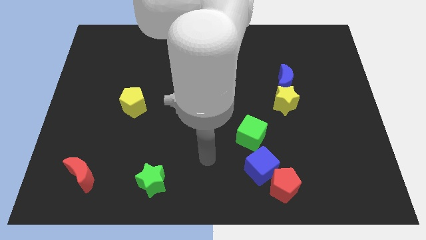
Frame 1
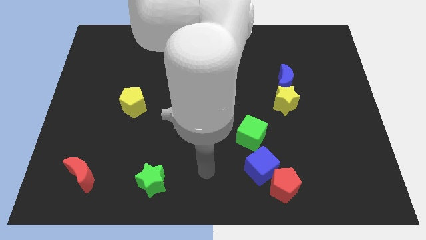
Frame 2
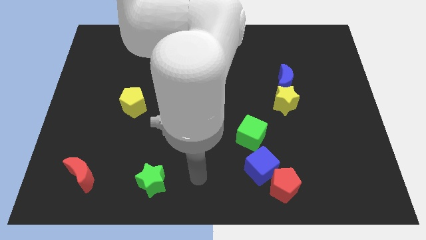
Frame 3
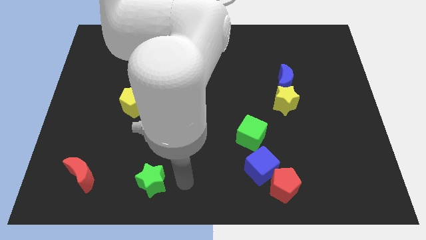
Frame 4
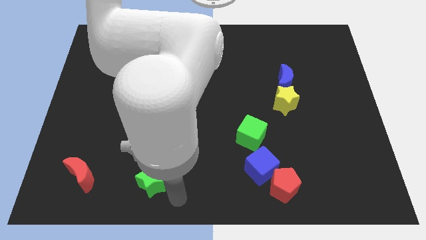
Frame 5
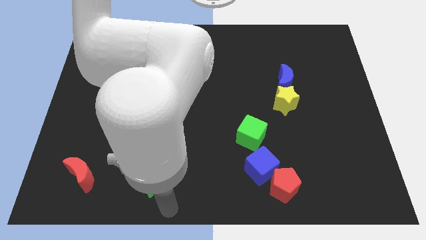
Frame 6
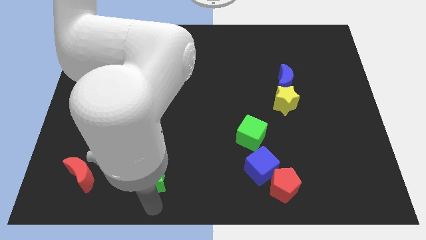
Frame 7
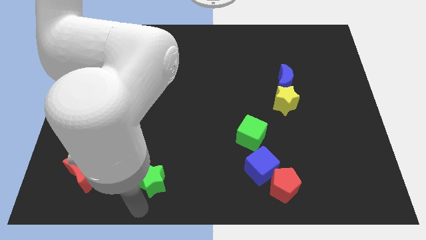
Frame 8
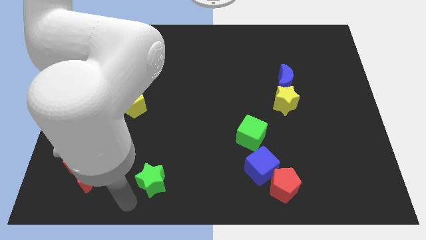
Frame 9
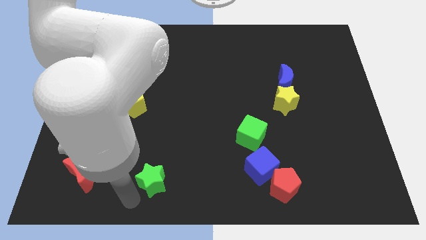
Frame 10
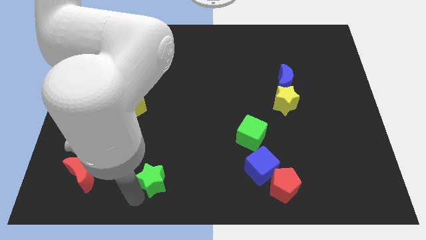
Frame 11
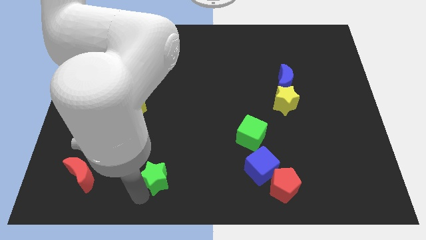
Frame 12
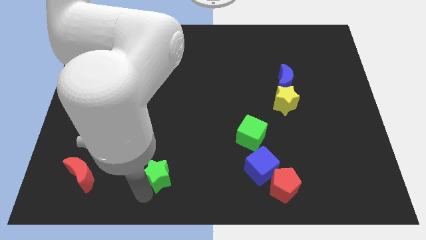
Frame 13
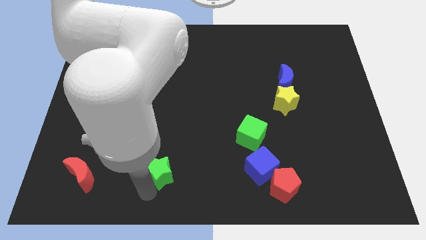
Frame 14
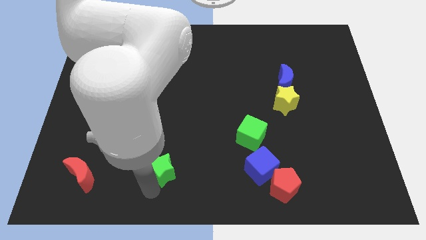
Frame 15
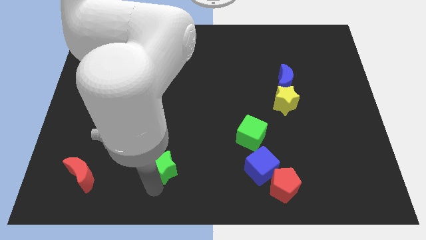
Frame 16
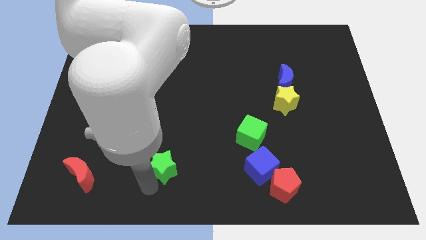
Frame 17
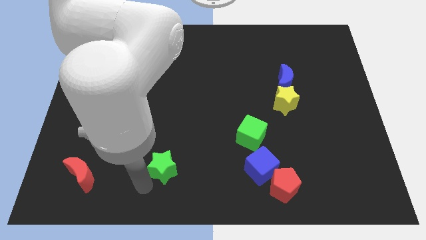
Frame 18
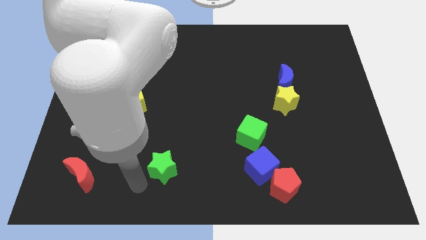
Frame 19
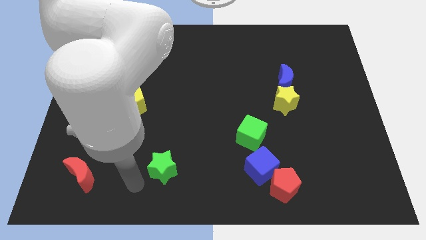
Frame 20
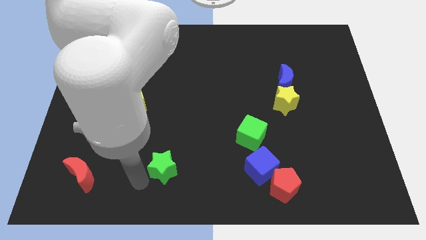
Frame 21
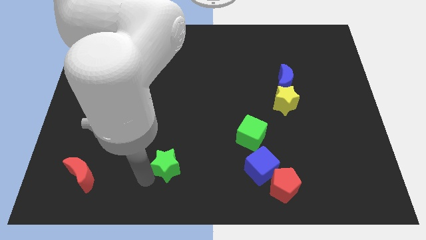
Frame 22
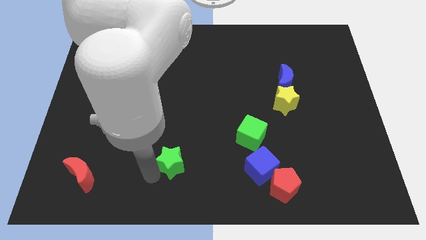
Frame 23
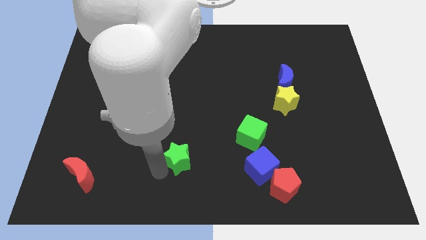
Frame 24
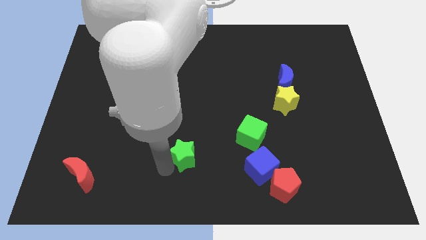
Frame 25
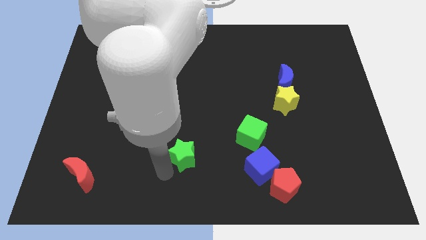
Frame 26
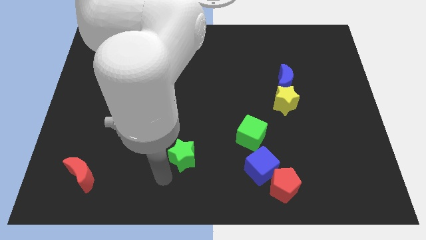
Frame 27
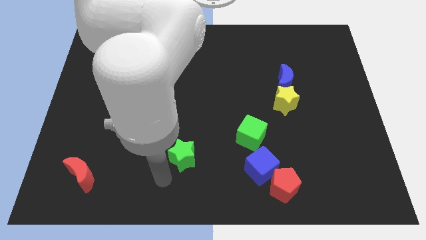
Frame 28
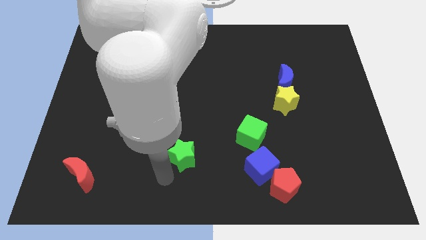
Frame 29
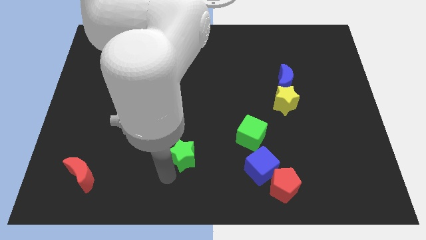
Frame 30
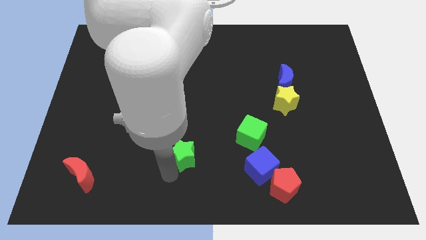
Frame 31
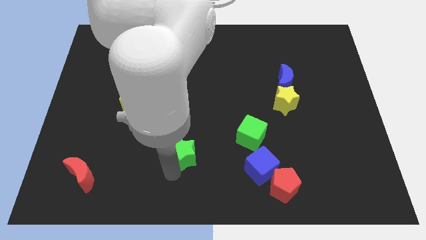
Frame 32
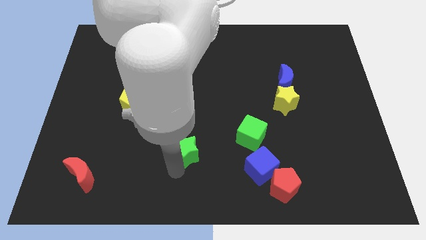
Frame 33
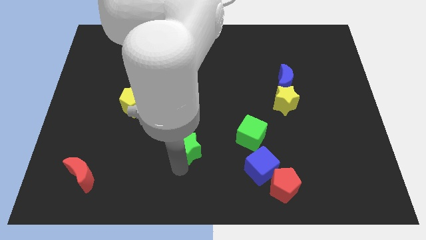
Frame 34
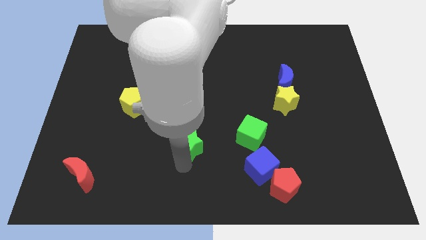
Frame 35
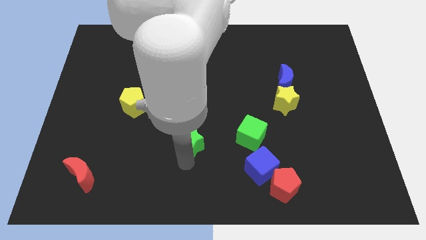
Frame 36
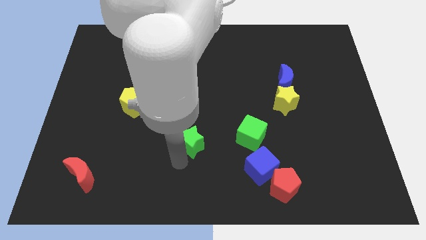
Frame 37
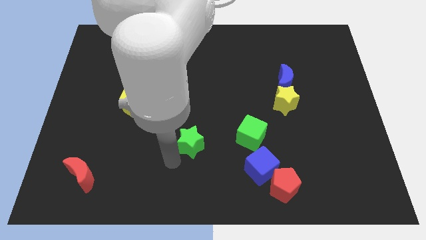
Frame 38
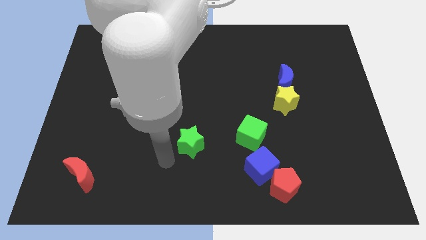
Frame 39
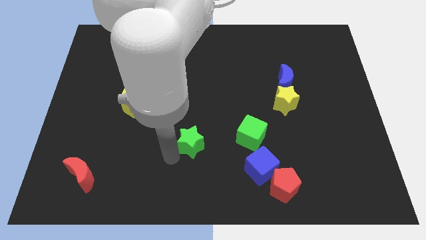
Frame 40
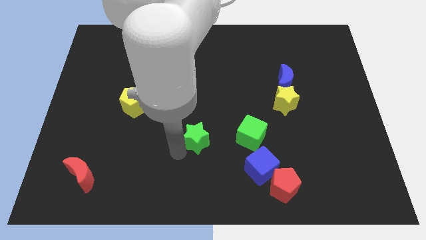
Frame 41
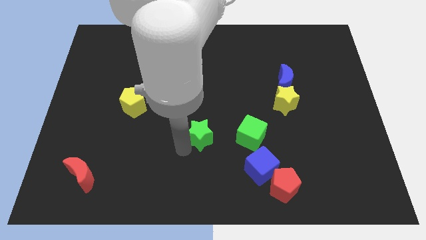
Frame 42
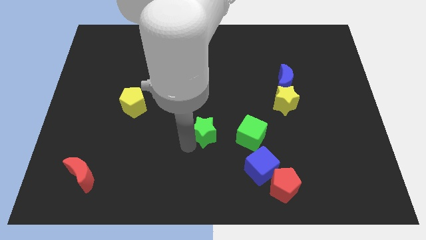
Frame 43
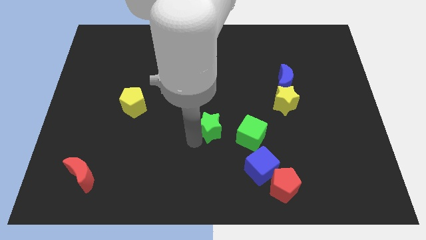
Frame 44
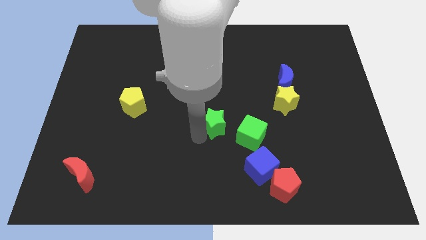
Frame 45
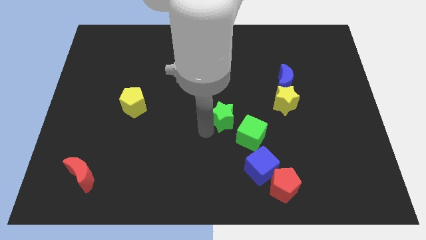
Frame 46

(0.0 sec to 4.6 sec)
push the green star diagonally upwards and to the right

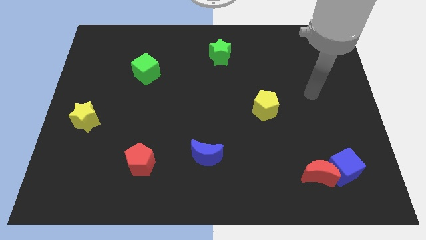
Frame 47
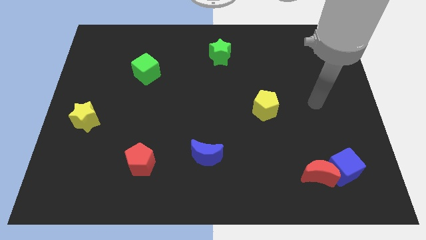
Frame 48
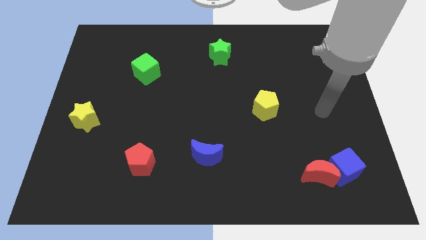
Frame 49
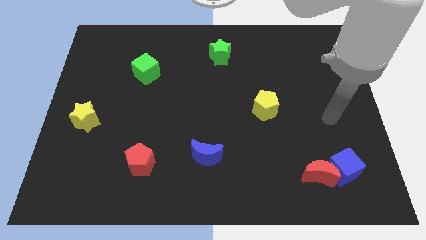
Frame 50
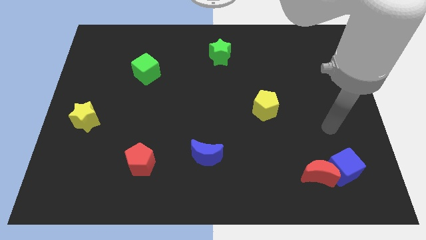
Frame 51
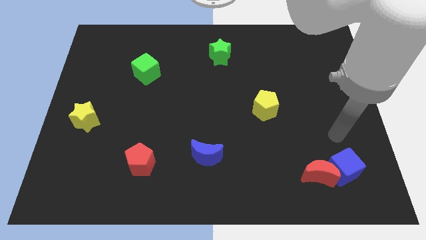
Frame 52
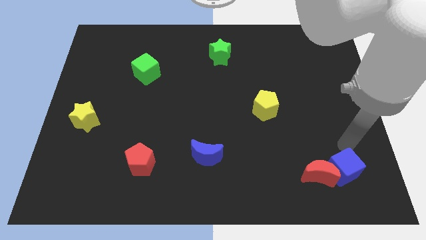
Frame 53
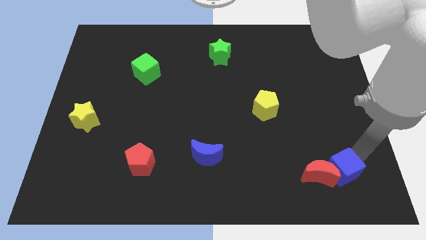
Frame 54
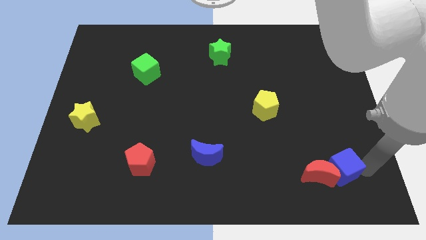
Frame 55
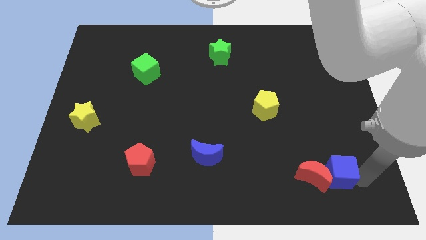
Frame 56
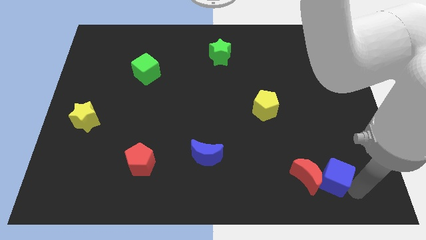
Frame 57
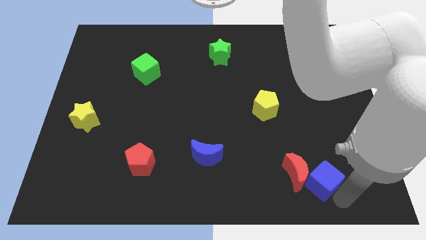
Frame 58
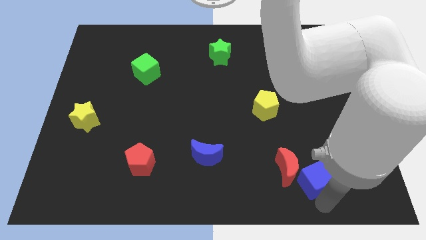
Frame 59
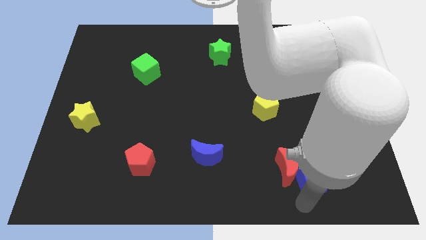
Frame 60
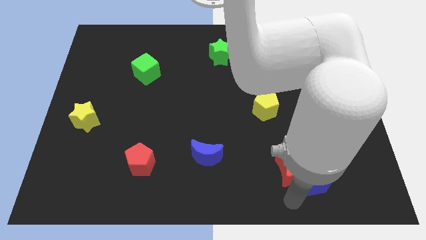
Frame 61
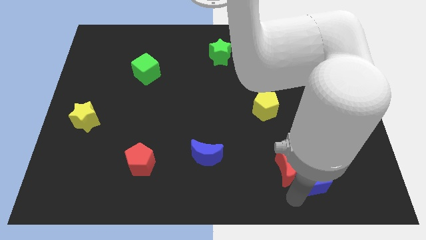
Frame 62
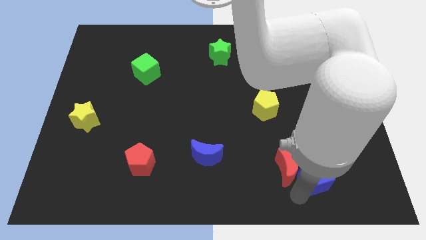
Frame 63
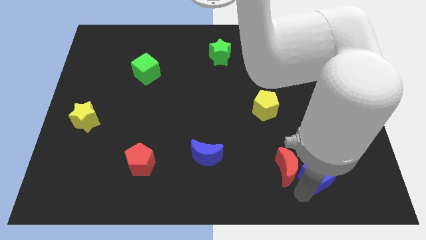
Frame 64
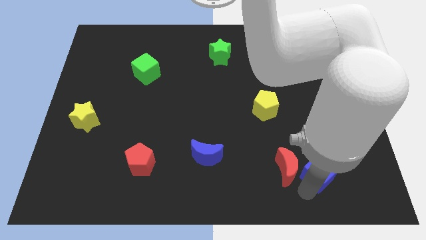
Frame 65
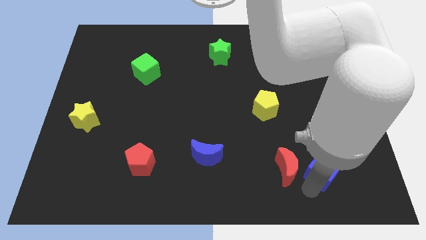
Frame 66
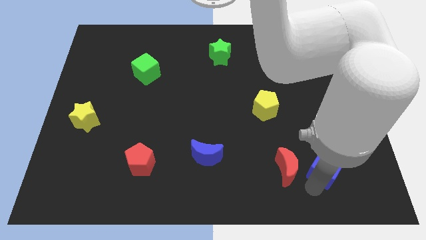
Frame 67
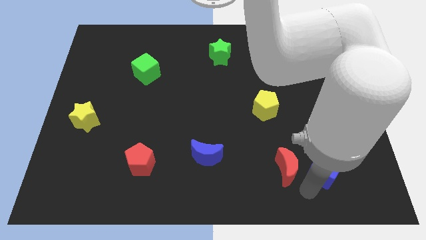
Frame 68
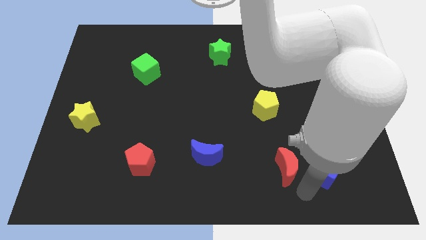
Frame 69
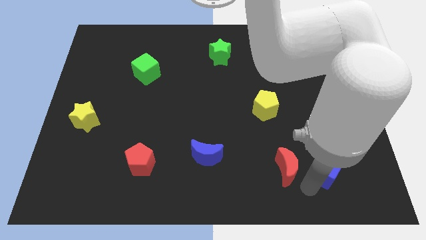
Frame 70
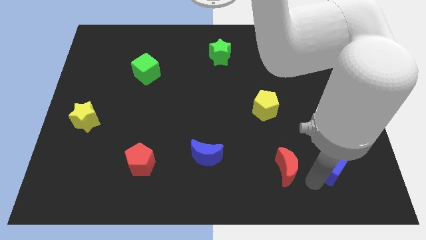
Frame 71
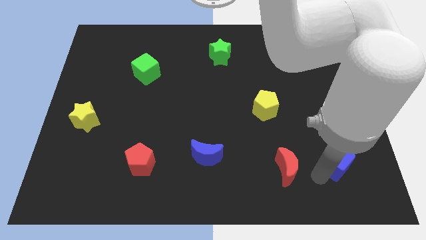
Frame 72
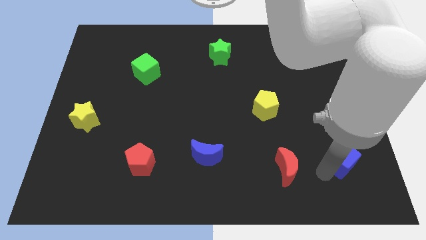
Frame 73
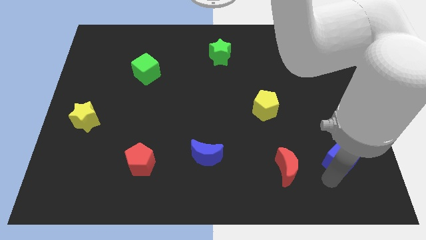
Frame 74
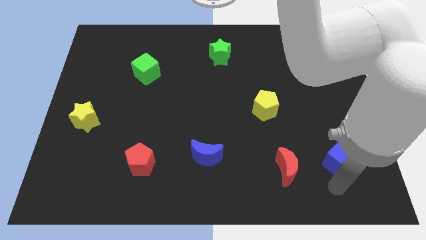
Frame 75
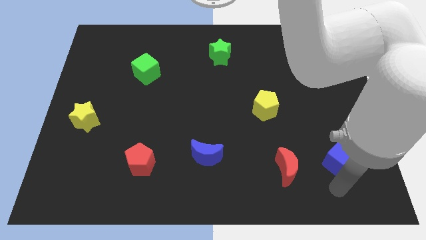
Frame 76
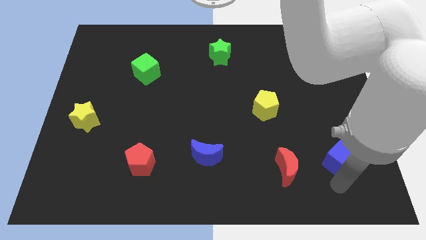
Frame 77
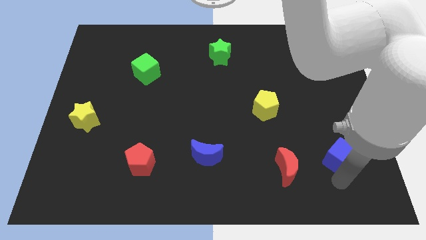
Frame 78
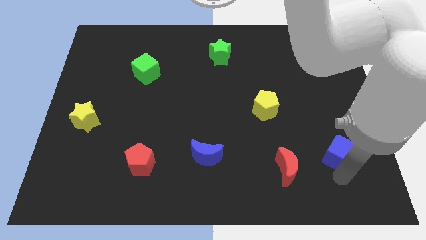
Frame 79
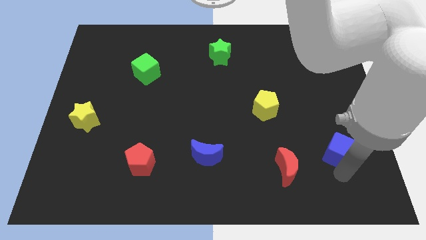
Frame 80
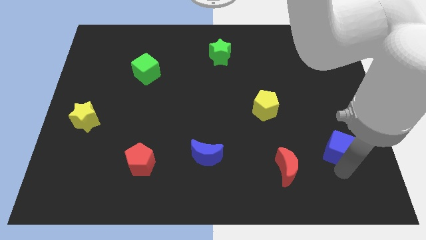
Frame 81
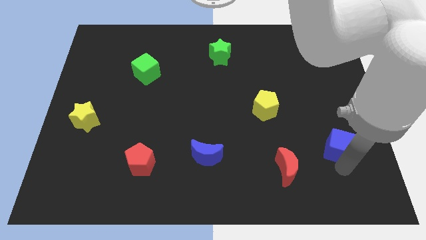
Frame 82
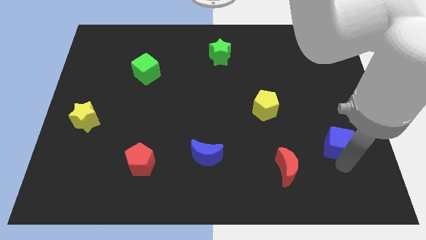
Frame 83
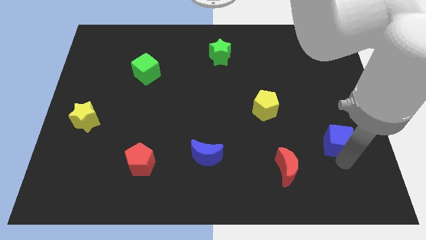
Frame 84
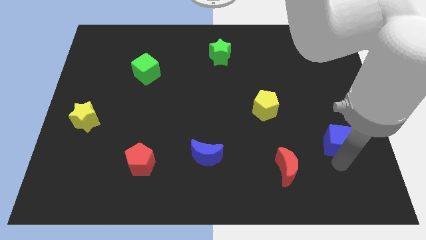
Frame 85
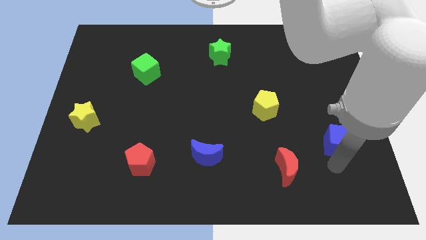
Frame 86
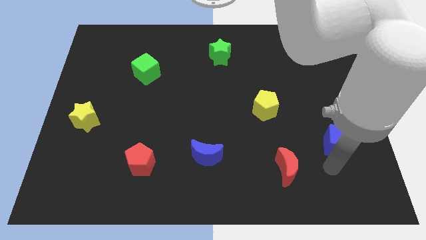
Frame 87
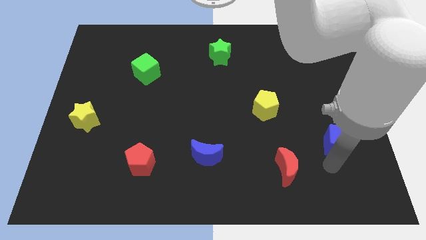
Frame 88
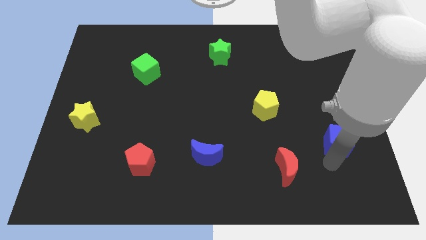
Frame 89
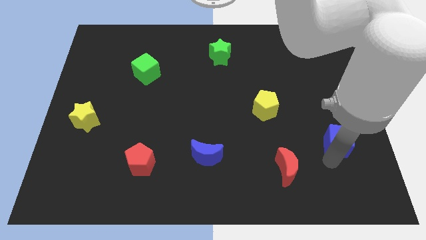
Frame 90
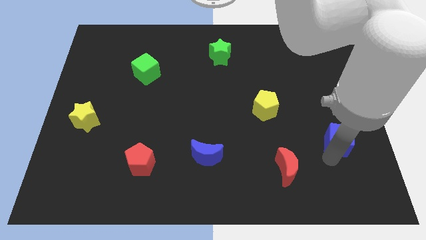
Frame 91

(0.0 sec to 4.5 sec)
push the blue cube slightly upwards
